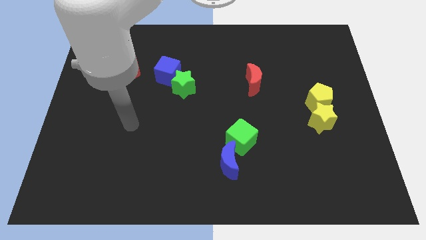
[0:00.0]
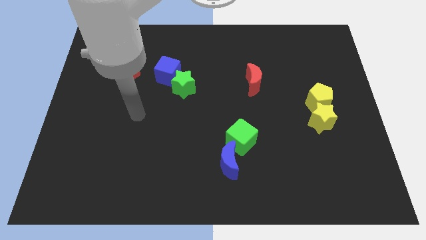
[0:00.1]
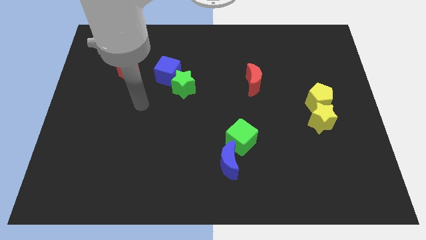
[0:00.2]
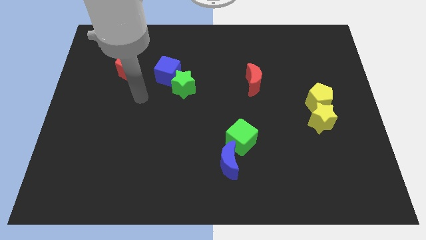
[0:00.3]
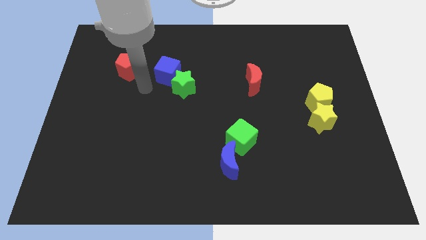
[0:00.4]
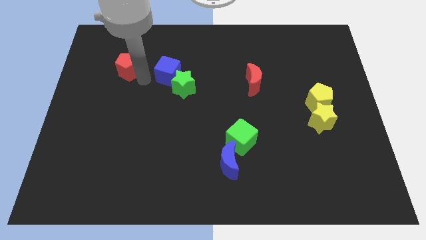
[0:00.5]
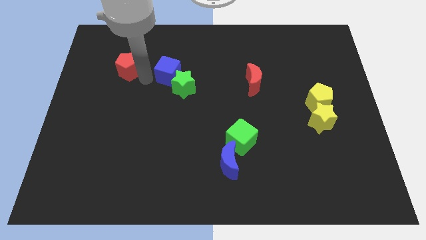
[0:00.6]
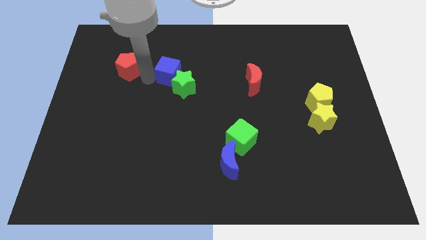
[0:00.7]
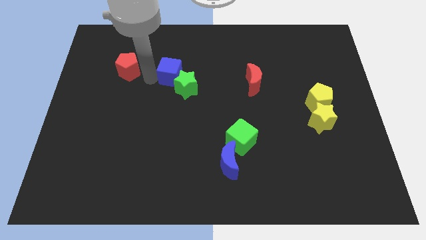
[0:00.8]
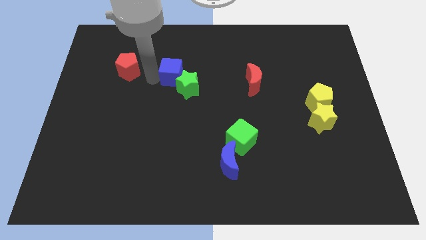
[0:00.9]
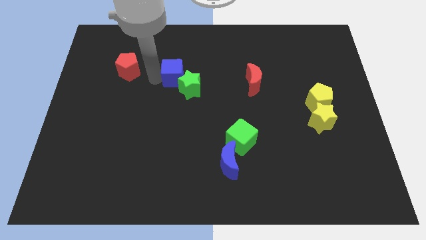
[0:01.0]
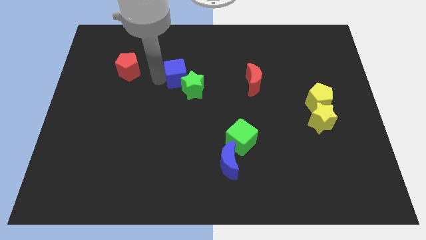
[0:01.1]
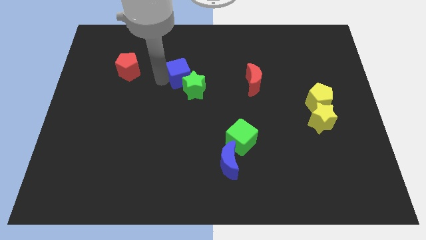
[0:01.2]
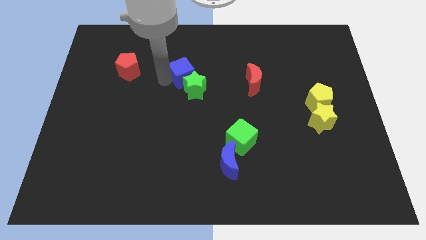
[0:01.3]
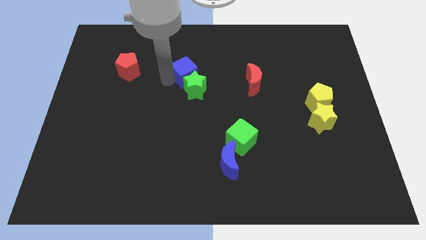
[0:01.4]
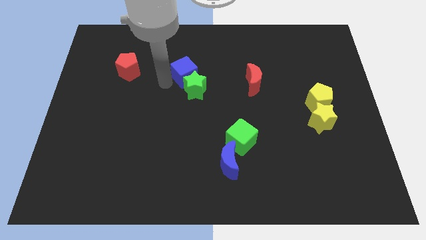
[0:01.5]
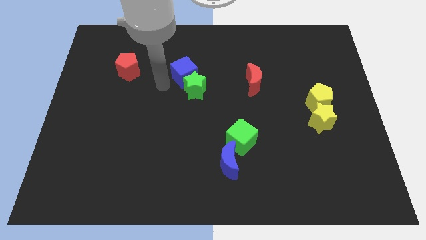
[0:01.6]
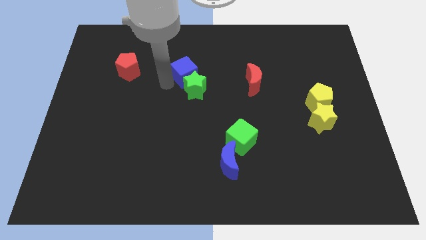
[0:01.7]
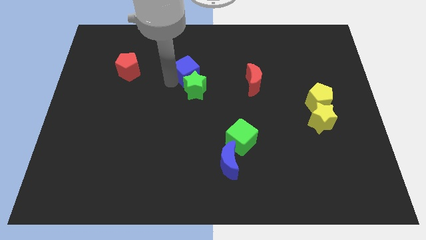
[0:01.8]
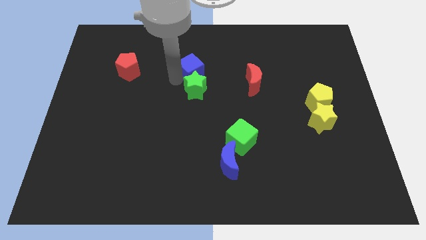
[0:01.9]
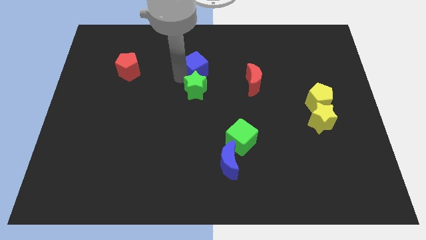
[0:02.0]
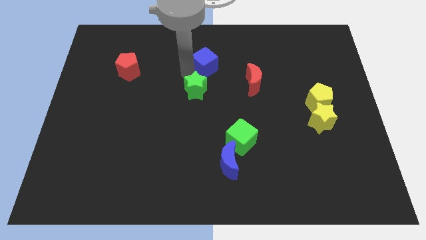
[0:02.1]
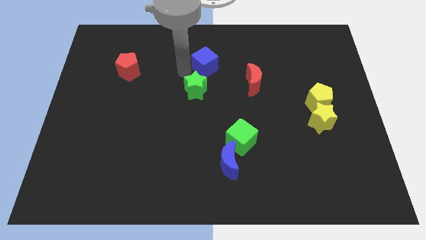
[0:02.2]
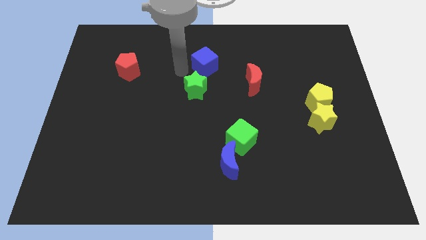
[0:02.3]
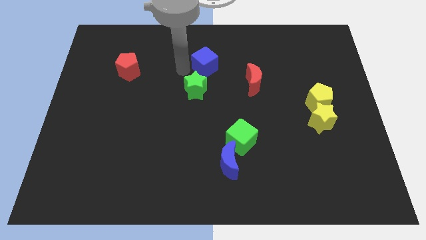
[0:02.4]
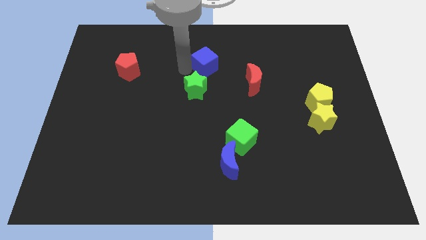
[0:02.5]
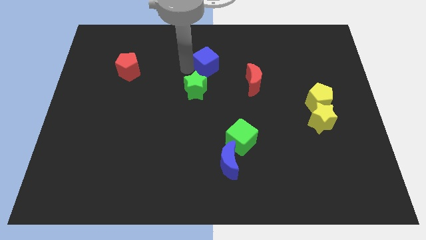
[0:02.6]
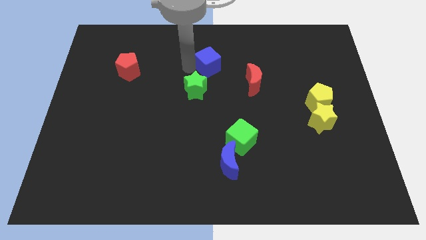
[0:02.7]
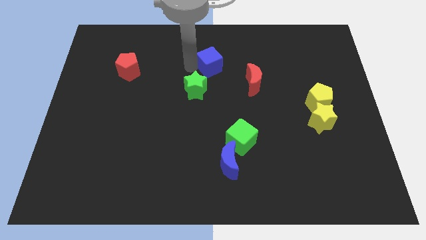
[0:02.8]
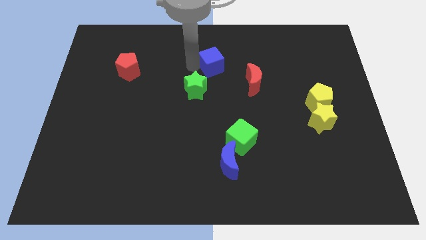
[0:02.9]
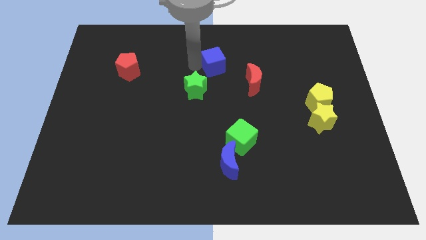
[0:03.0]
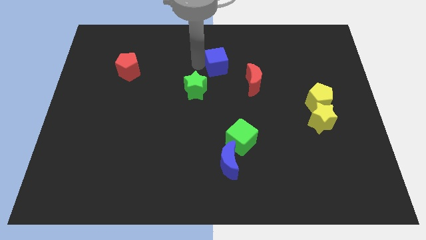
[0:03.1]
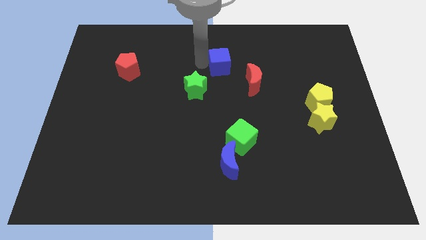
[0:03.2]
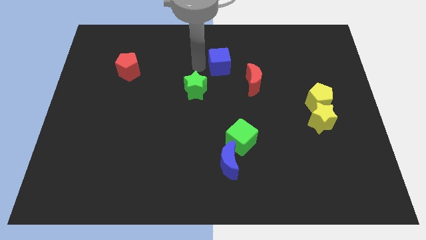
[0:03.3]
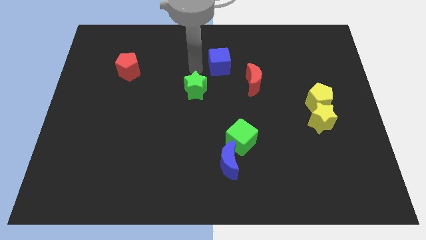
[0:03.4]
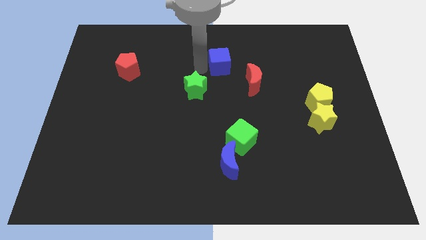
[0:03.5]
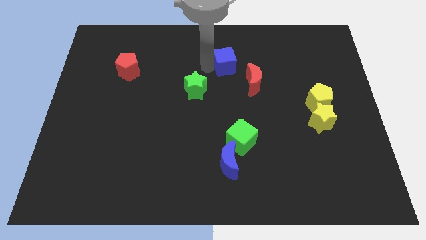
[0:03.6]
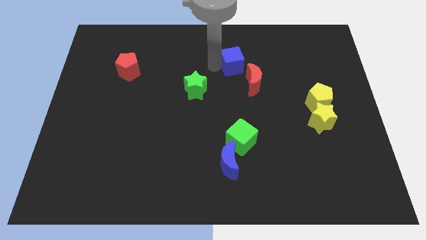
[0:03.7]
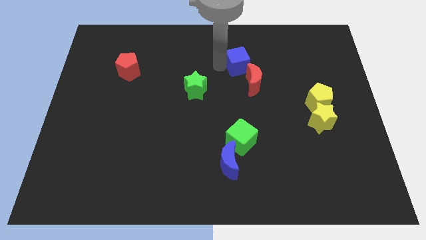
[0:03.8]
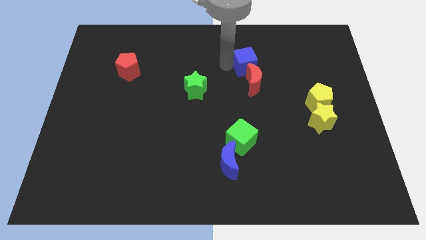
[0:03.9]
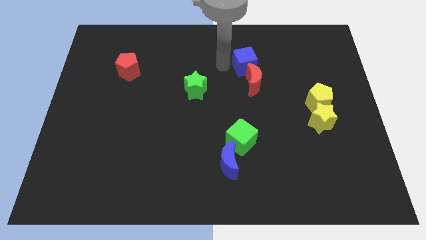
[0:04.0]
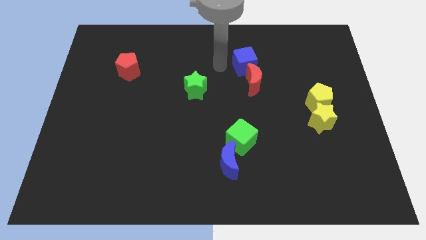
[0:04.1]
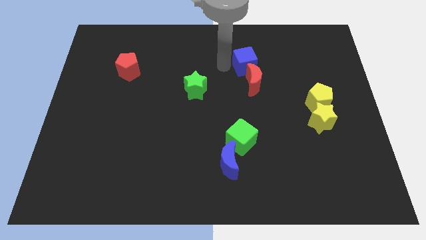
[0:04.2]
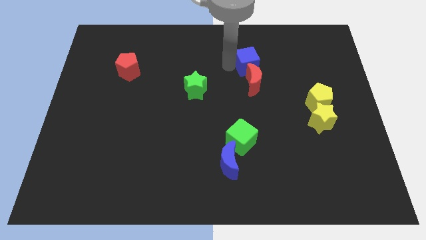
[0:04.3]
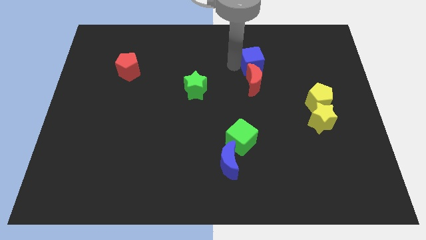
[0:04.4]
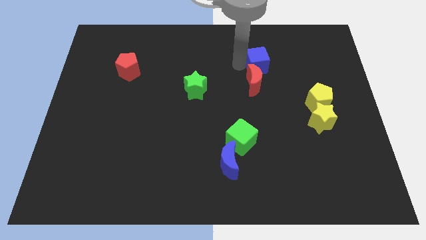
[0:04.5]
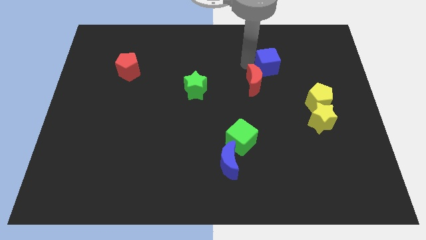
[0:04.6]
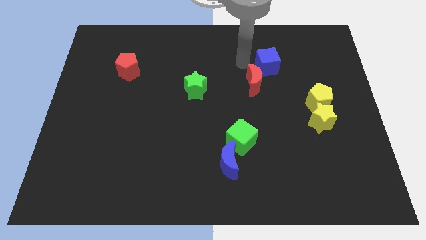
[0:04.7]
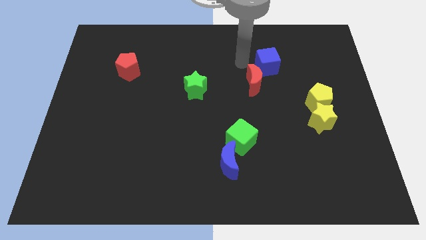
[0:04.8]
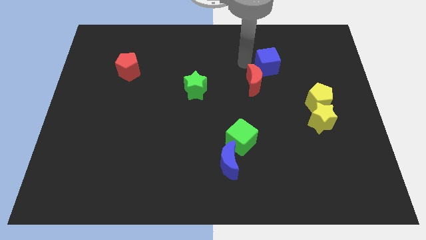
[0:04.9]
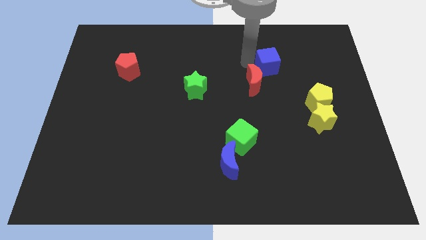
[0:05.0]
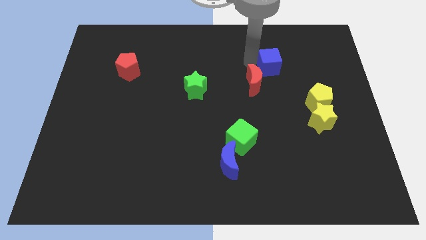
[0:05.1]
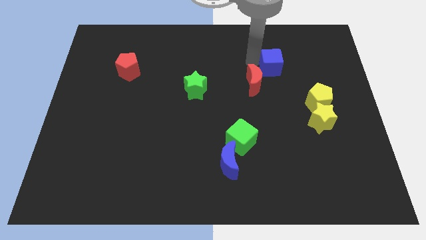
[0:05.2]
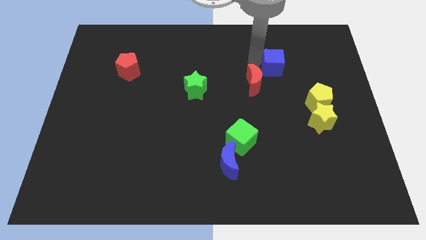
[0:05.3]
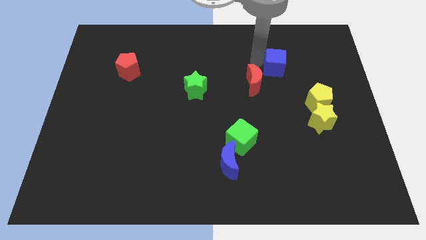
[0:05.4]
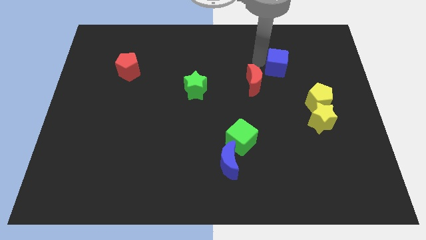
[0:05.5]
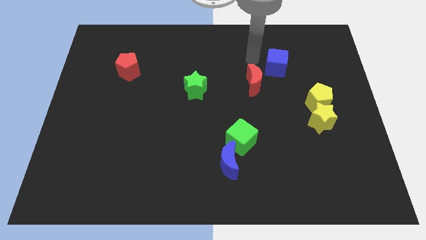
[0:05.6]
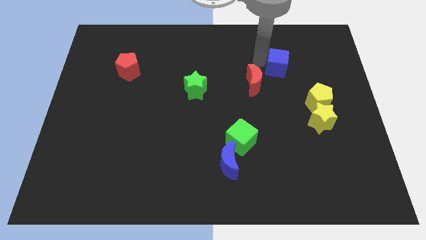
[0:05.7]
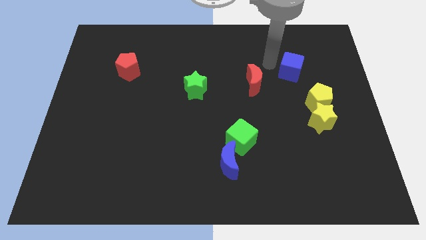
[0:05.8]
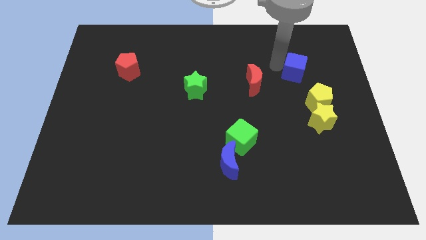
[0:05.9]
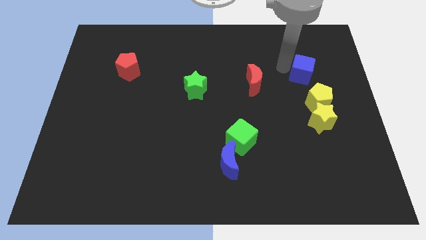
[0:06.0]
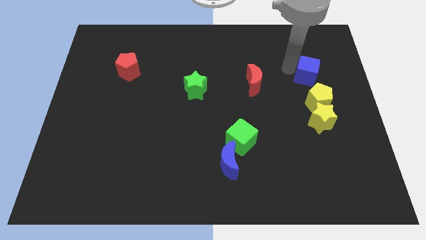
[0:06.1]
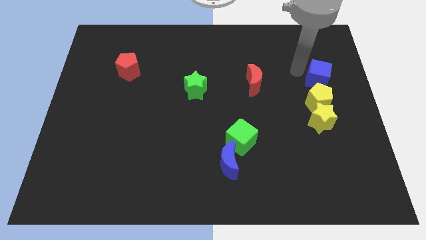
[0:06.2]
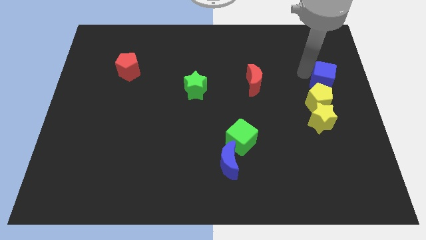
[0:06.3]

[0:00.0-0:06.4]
put the blue cube to the center right

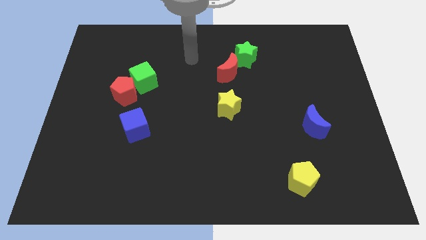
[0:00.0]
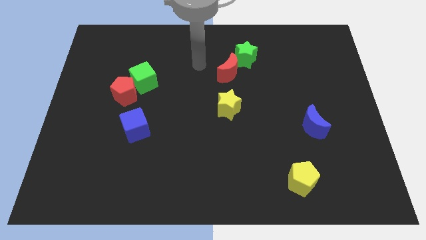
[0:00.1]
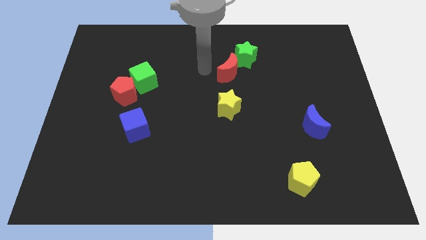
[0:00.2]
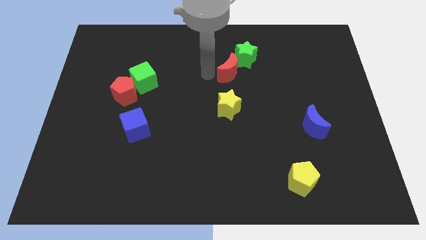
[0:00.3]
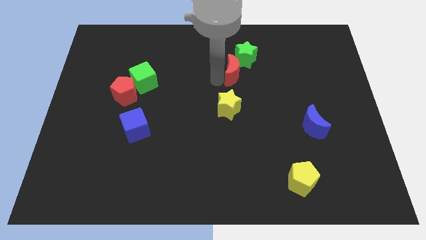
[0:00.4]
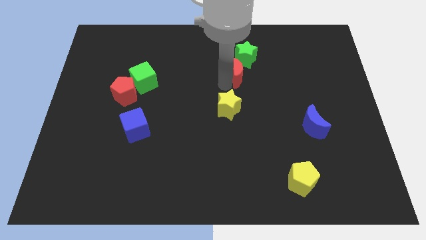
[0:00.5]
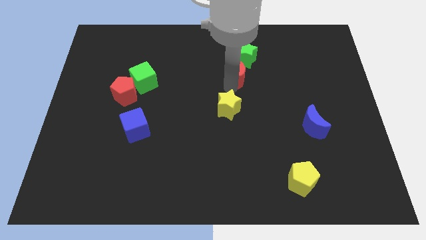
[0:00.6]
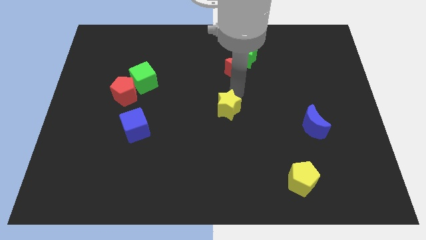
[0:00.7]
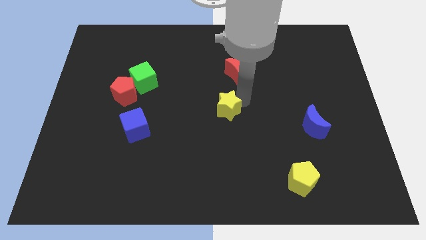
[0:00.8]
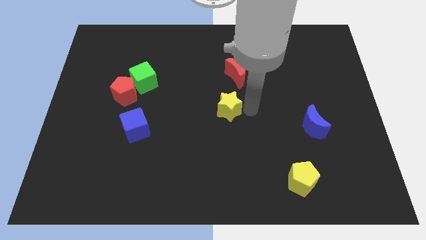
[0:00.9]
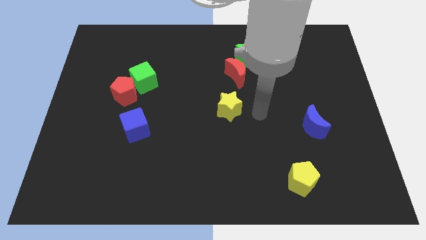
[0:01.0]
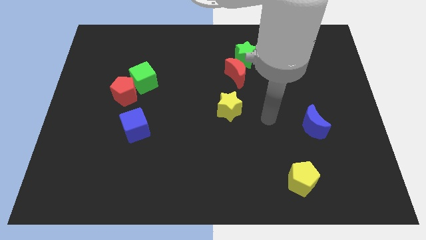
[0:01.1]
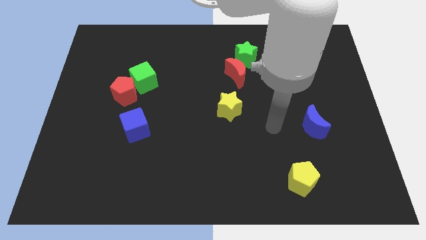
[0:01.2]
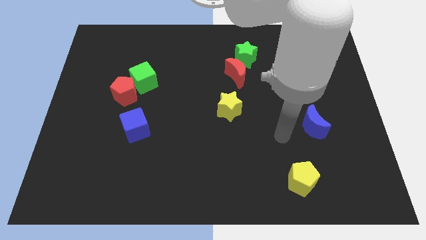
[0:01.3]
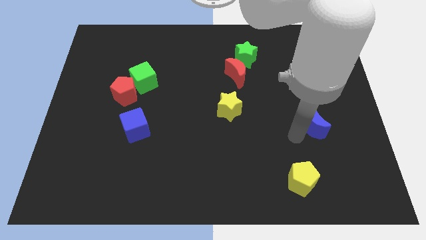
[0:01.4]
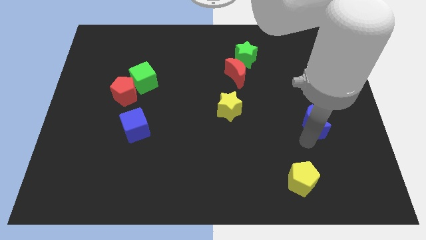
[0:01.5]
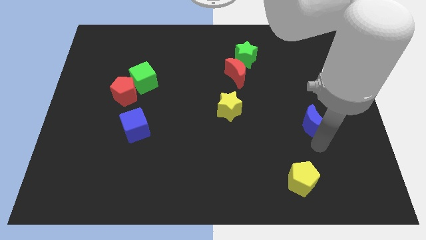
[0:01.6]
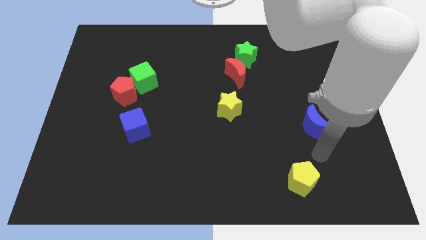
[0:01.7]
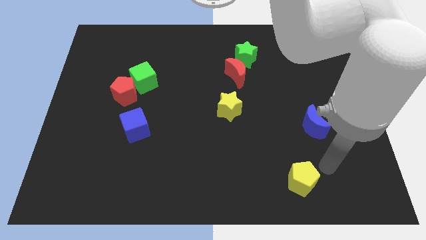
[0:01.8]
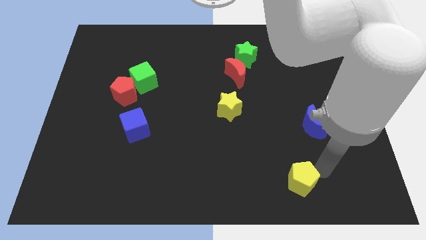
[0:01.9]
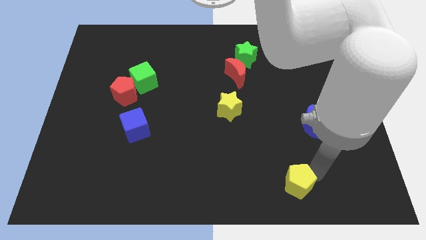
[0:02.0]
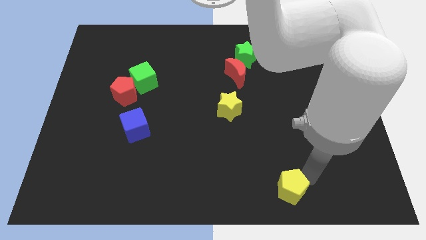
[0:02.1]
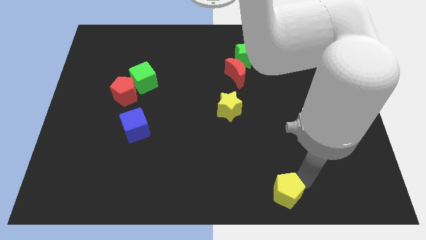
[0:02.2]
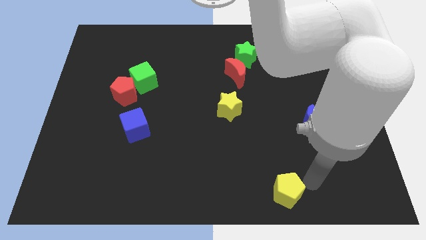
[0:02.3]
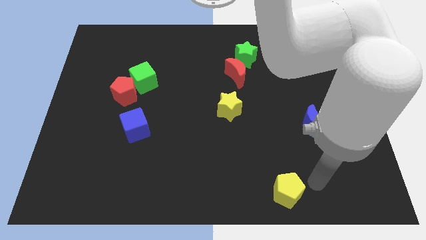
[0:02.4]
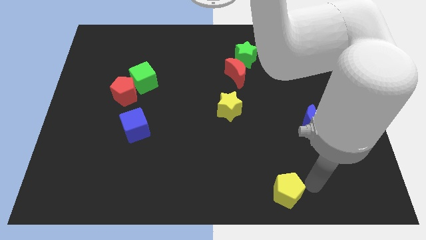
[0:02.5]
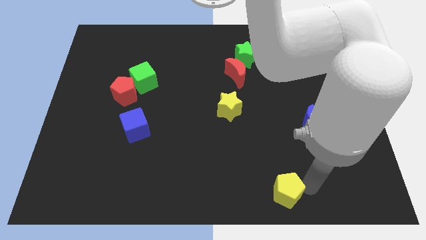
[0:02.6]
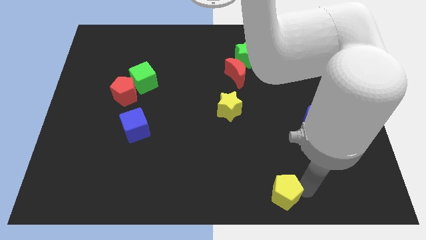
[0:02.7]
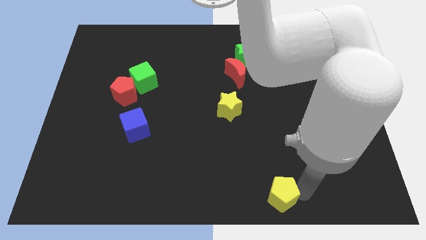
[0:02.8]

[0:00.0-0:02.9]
put the yellow pentagon to the bottom side
